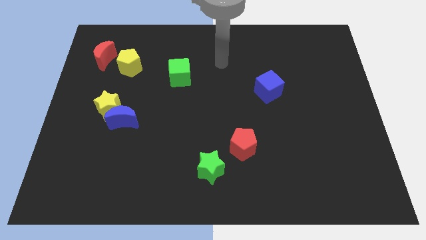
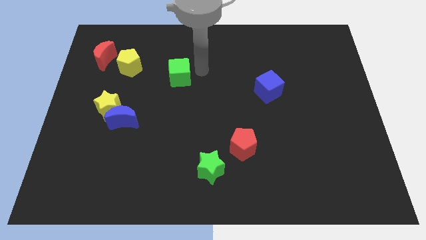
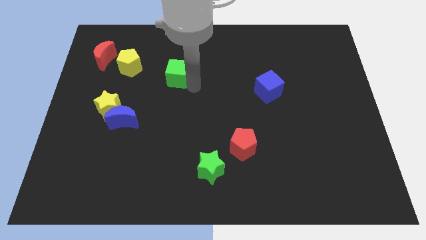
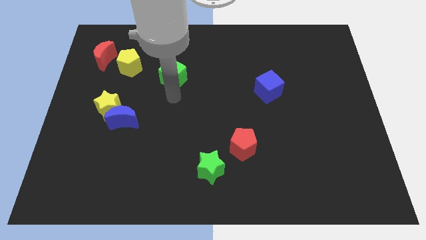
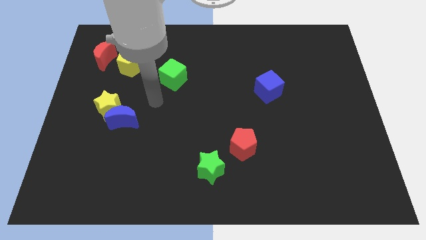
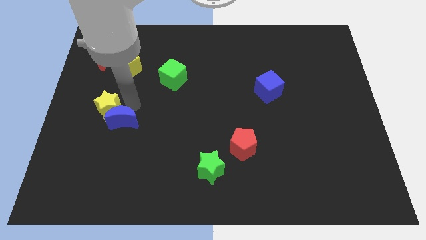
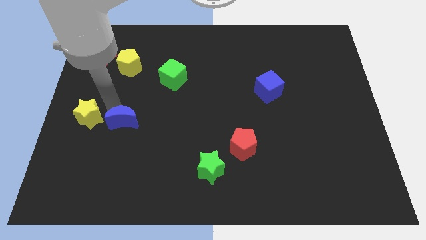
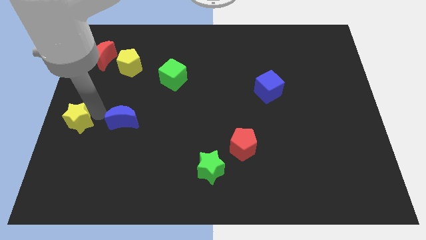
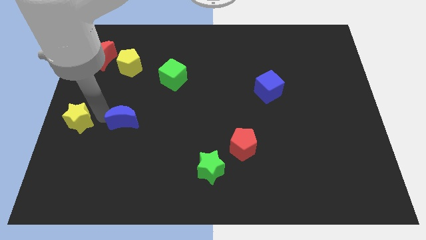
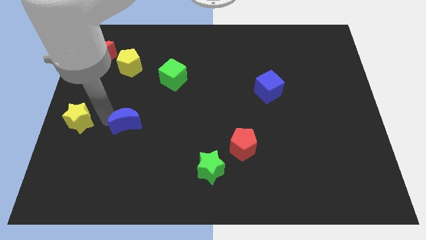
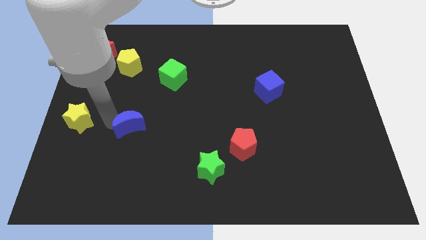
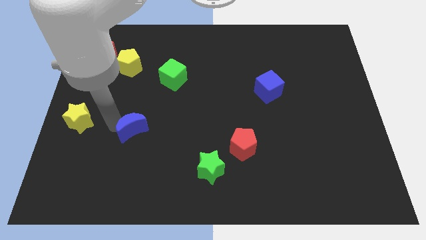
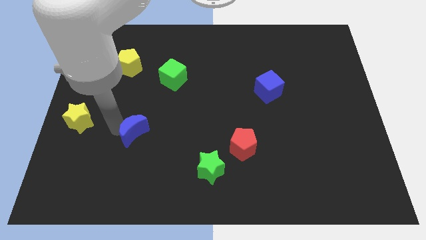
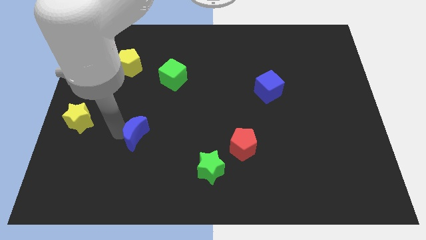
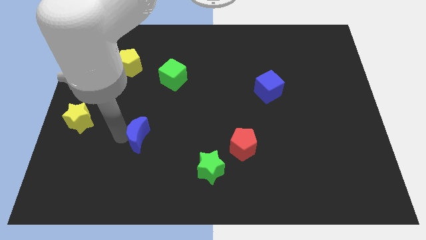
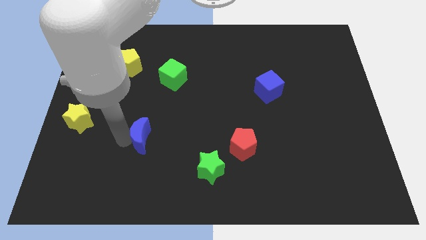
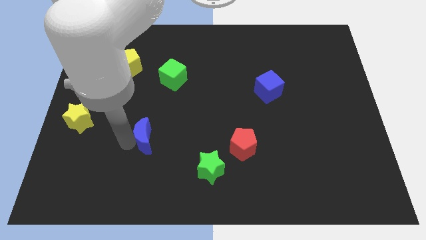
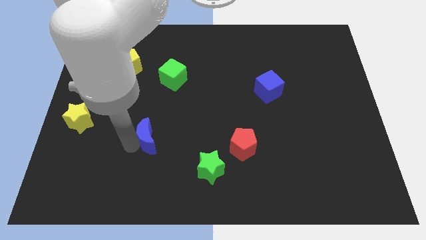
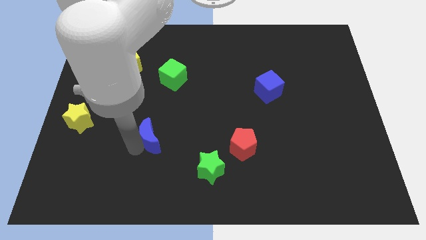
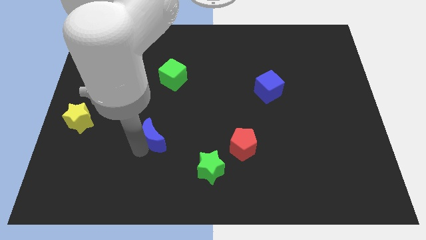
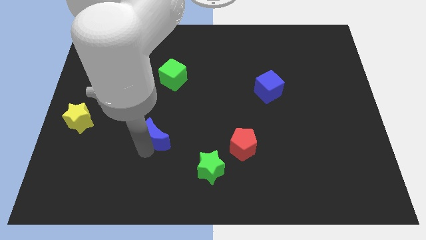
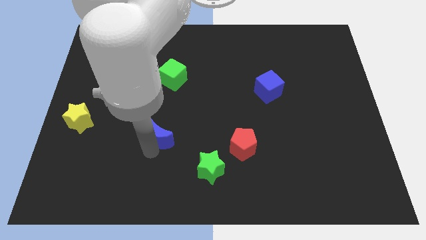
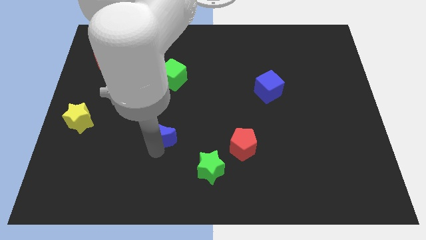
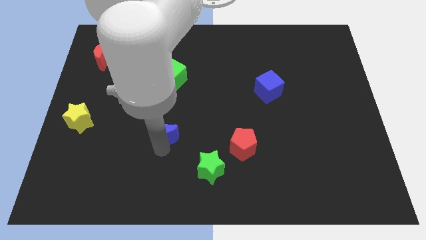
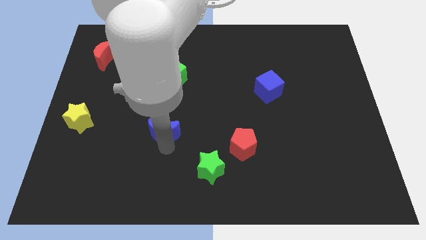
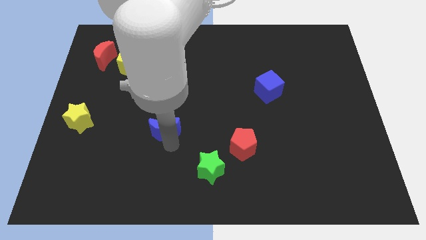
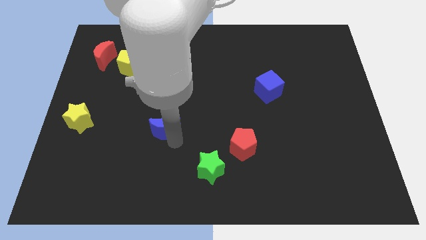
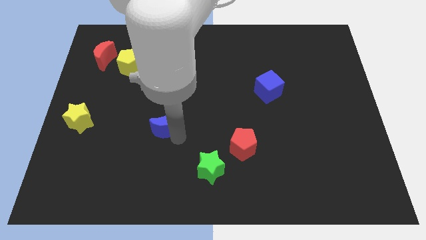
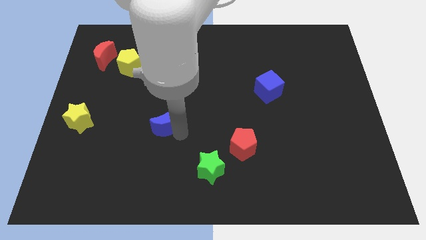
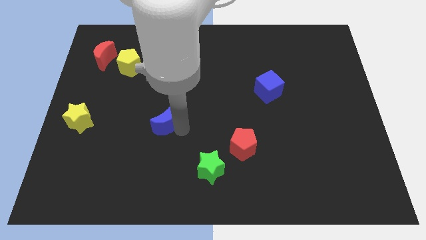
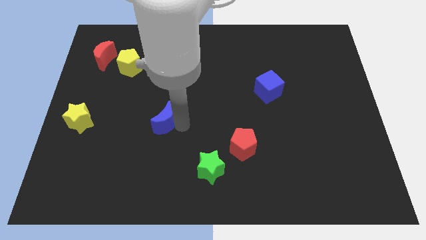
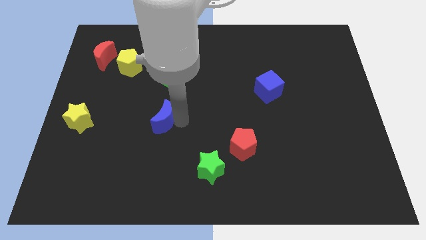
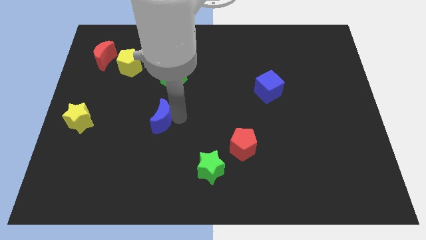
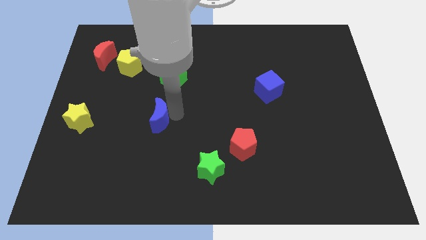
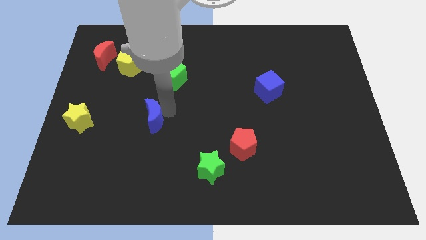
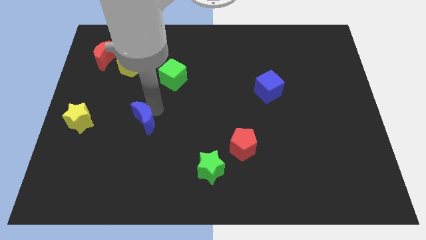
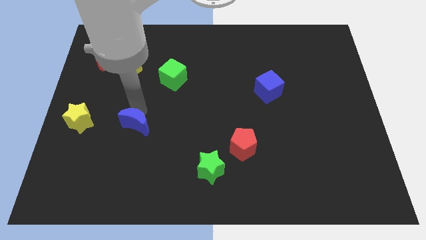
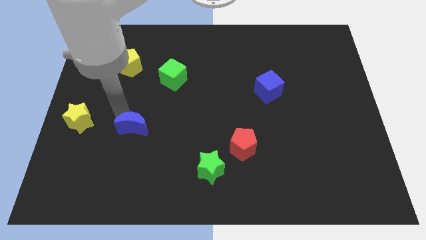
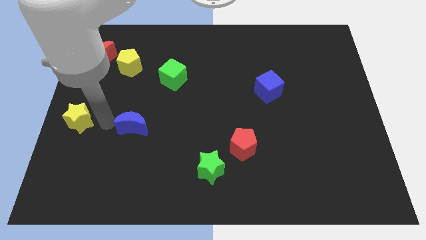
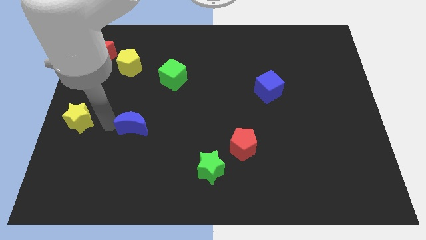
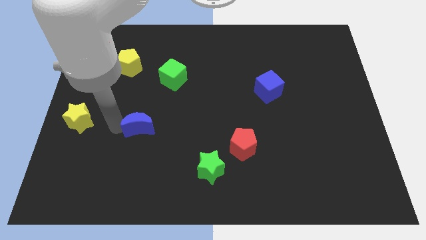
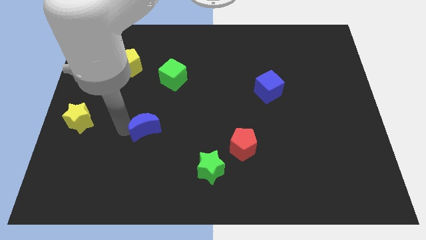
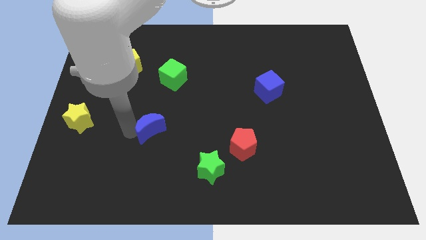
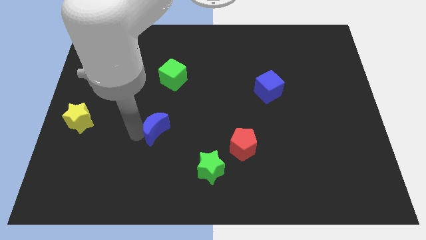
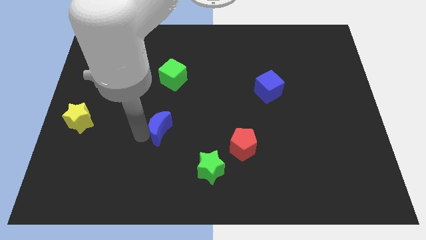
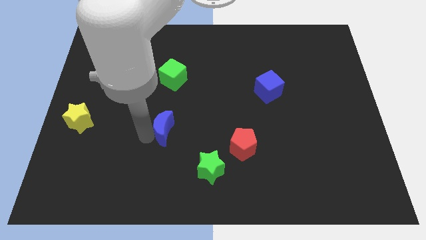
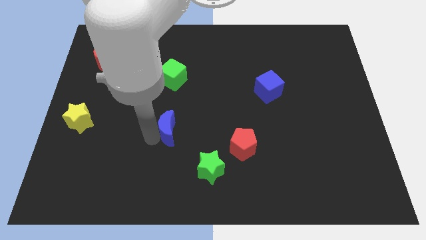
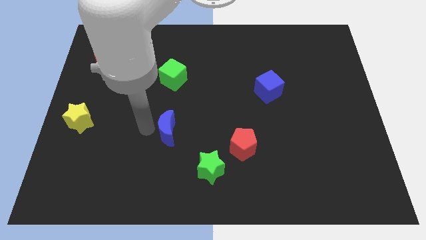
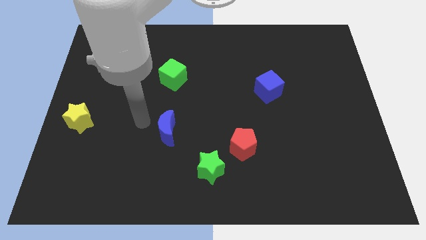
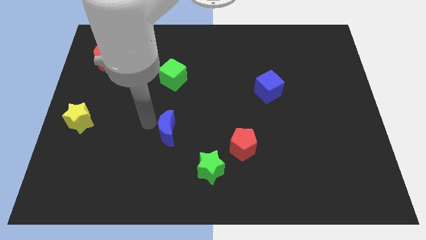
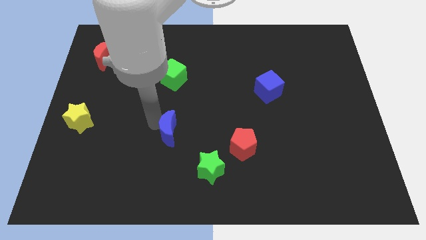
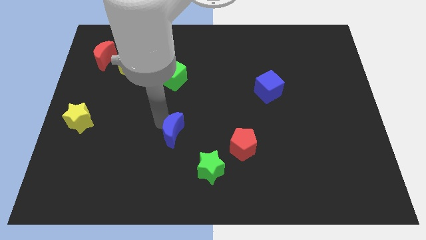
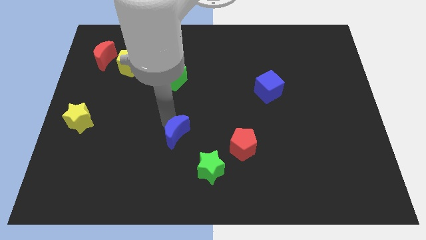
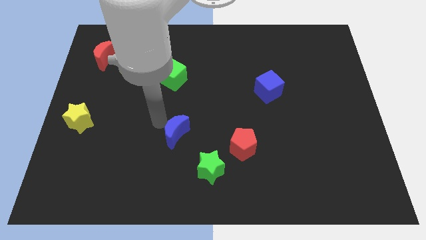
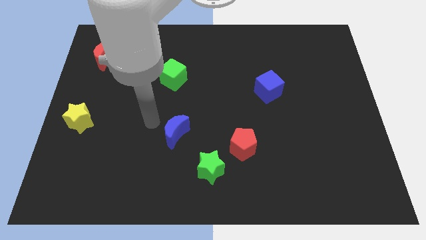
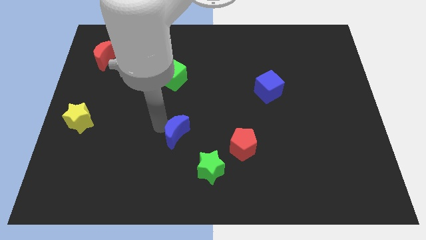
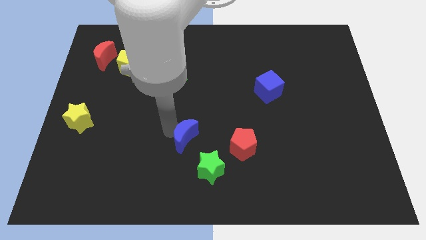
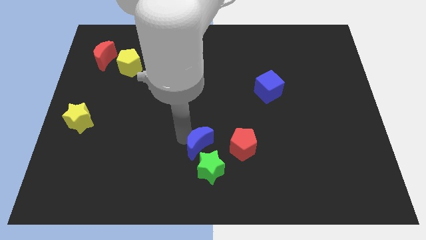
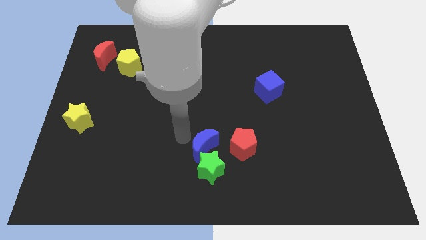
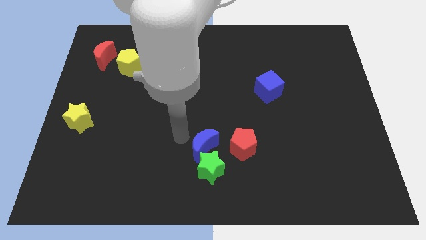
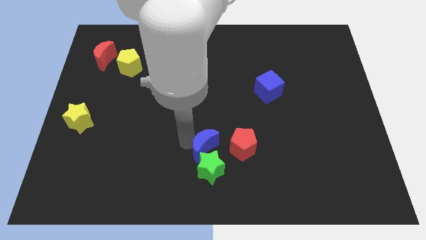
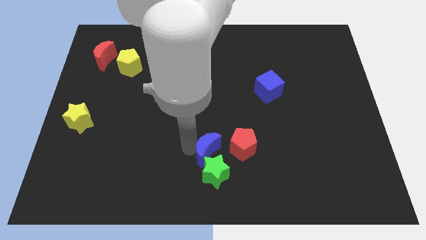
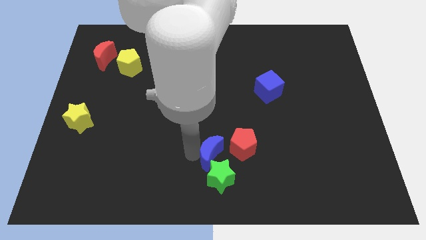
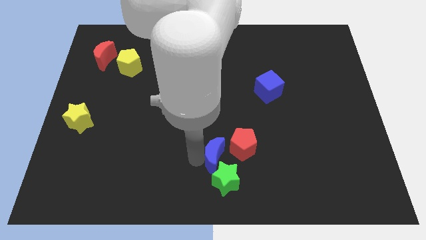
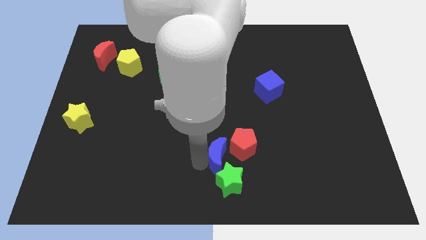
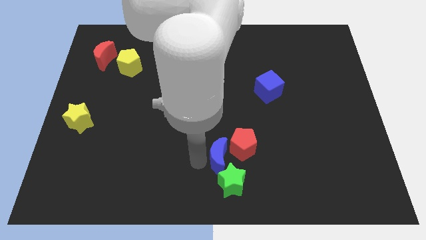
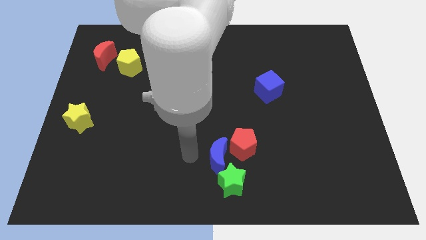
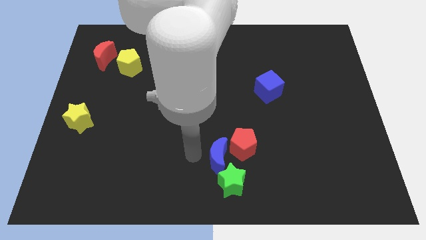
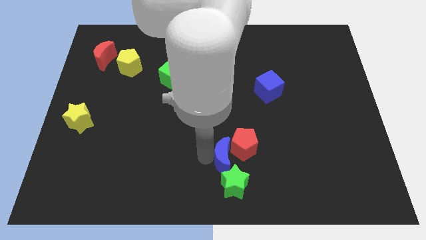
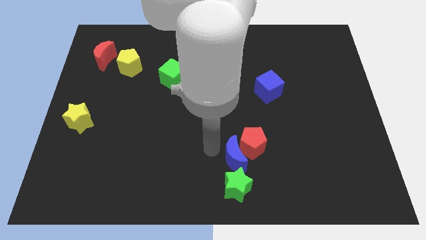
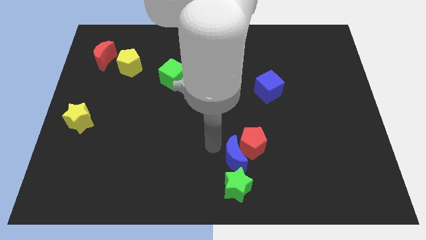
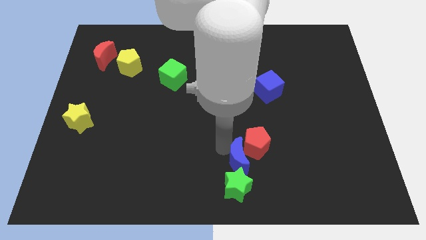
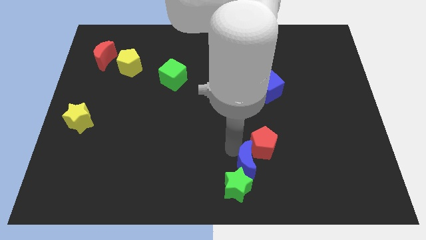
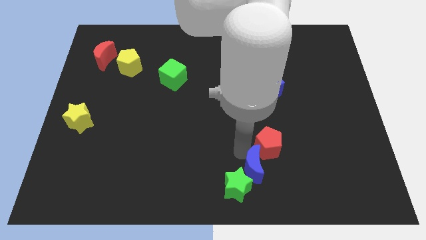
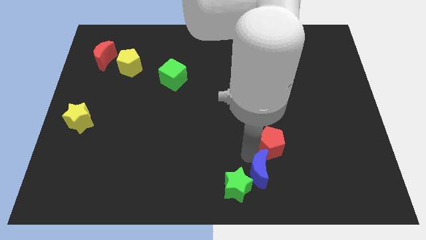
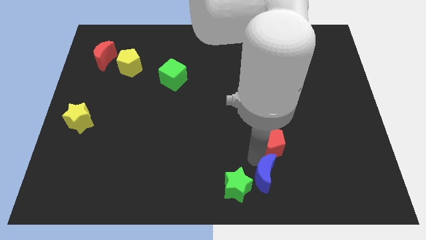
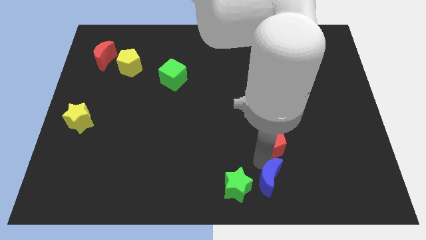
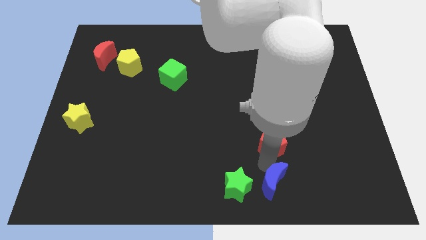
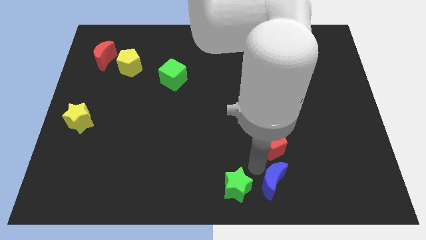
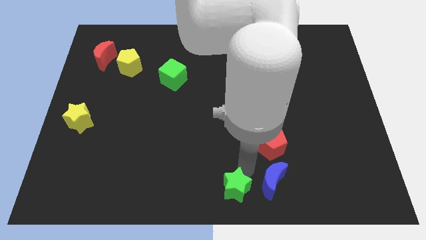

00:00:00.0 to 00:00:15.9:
slide the blue moon to the right side of the green star
